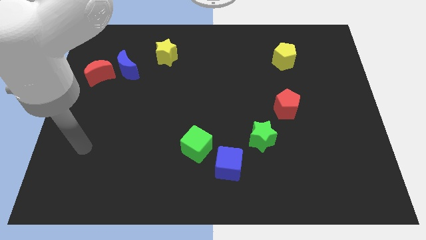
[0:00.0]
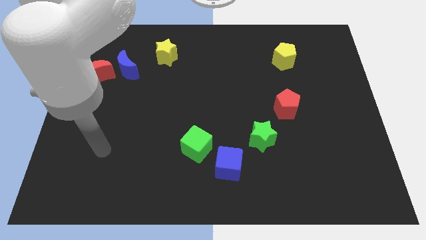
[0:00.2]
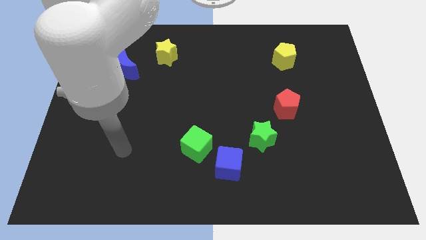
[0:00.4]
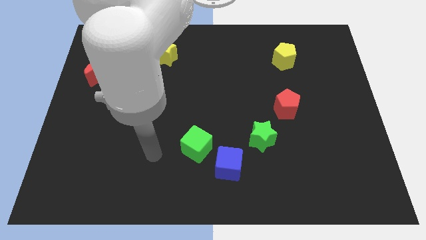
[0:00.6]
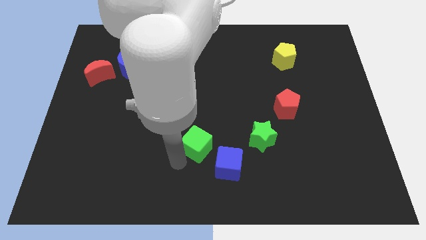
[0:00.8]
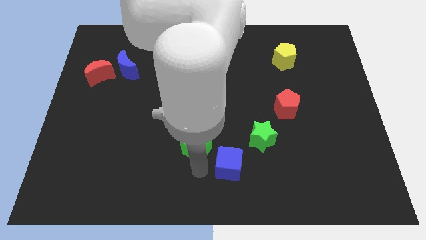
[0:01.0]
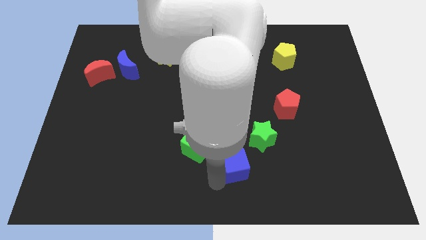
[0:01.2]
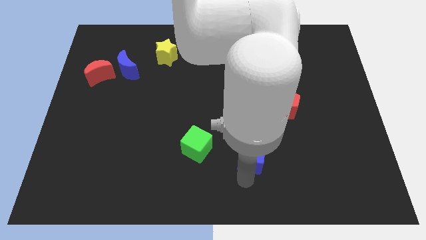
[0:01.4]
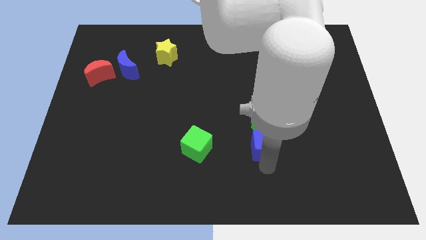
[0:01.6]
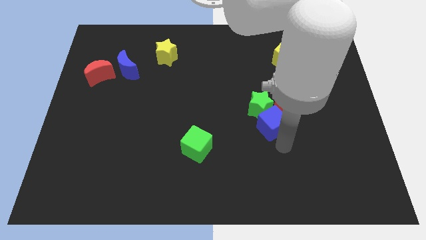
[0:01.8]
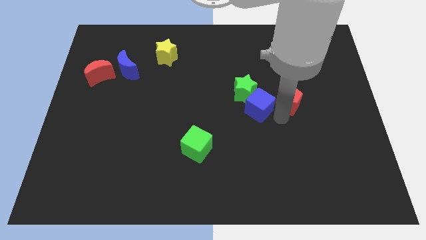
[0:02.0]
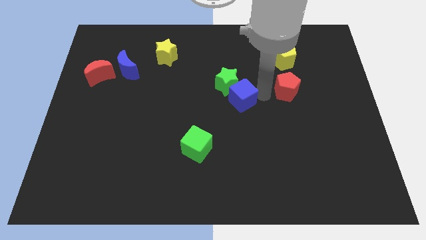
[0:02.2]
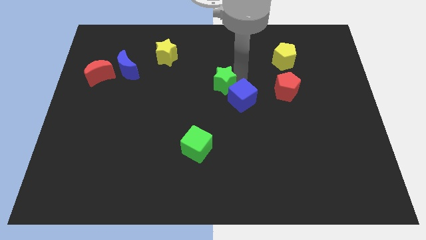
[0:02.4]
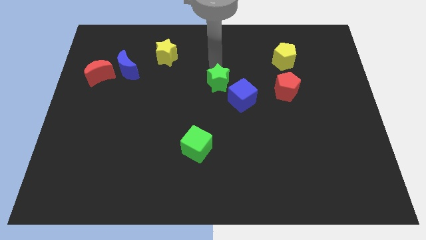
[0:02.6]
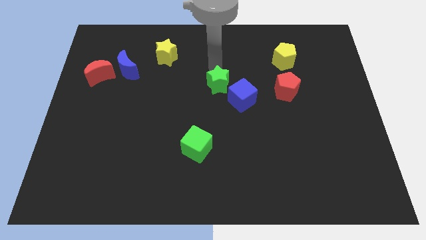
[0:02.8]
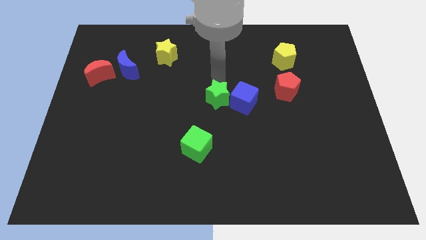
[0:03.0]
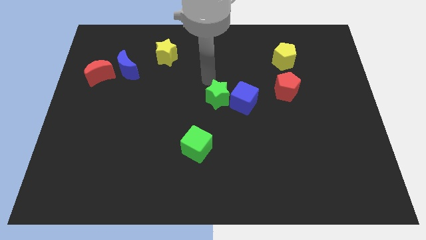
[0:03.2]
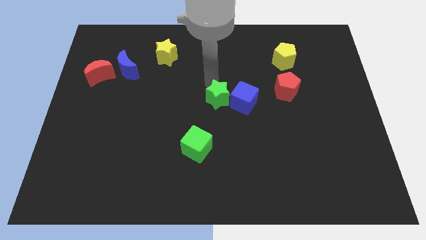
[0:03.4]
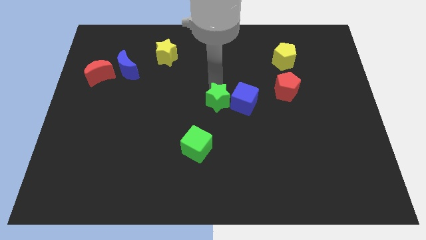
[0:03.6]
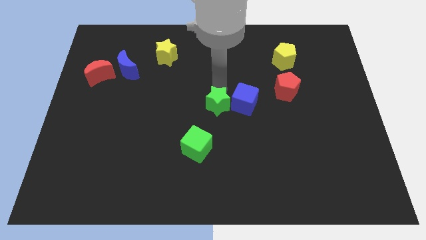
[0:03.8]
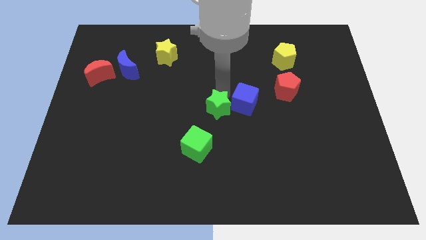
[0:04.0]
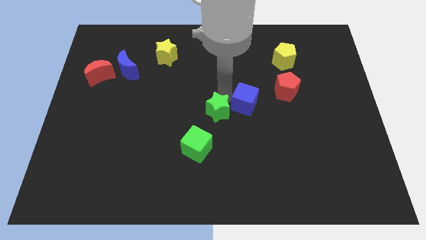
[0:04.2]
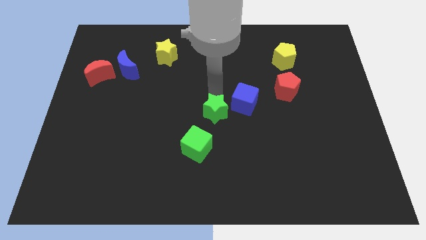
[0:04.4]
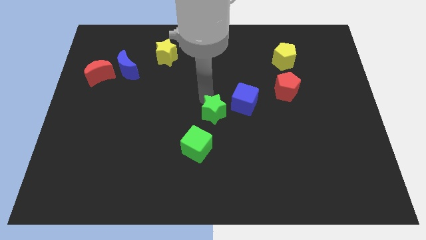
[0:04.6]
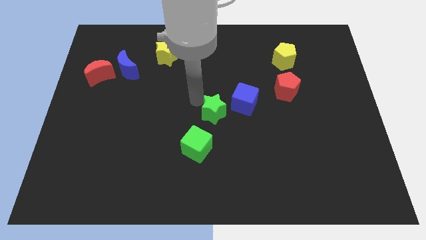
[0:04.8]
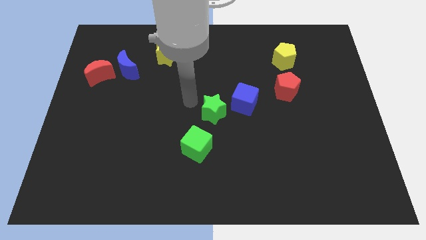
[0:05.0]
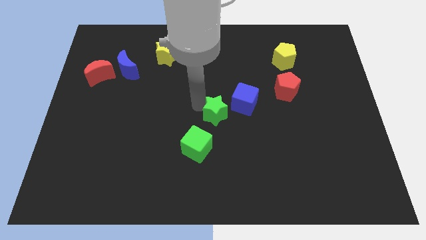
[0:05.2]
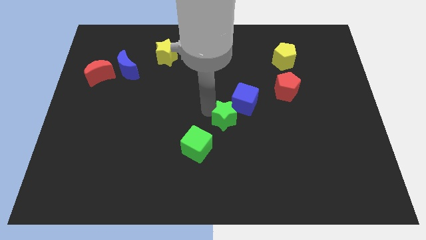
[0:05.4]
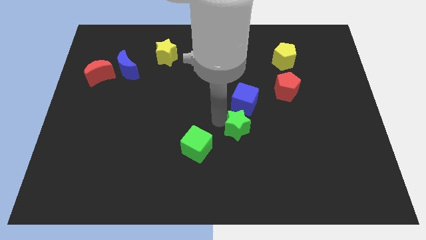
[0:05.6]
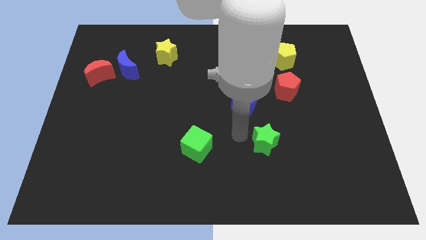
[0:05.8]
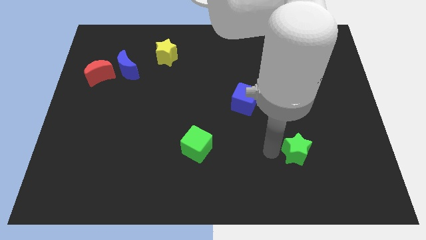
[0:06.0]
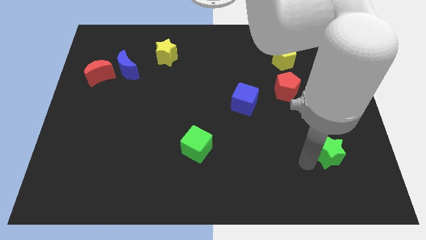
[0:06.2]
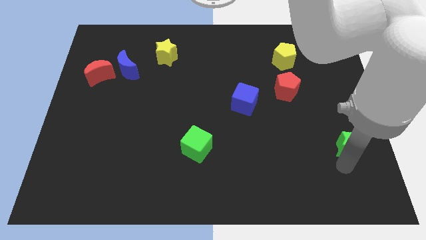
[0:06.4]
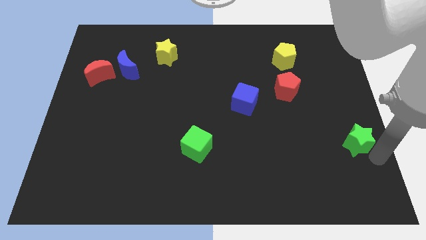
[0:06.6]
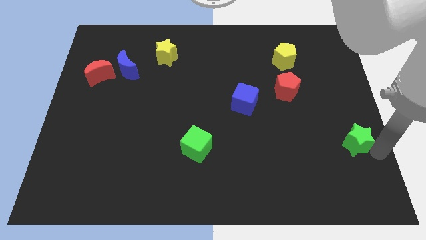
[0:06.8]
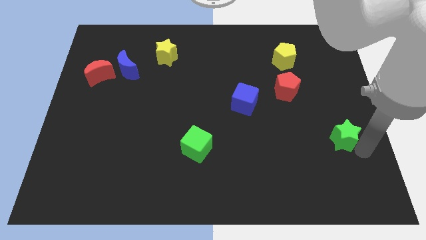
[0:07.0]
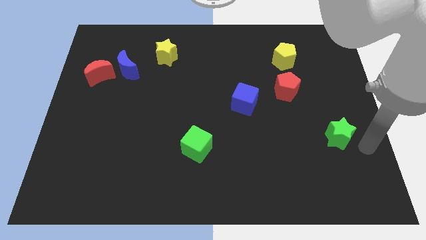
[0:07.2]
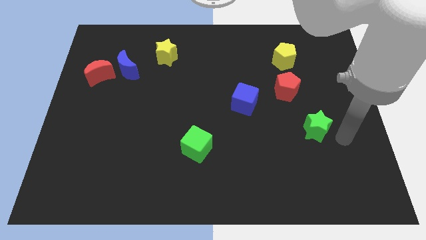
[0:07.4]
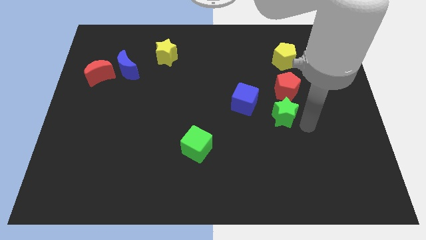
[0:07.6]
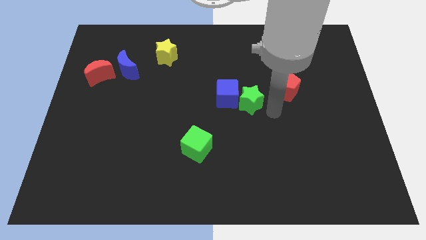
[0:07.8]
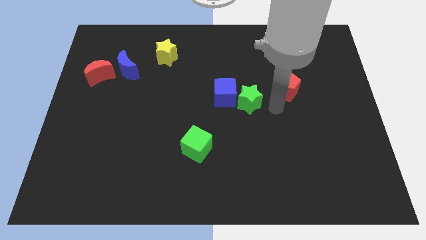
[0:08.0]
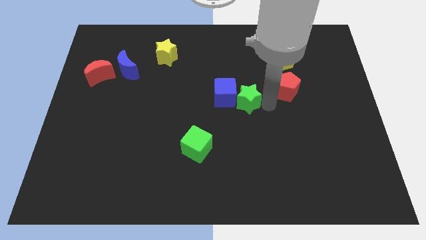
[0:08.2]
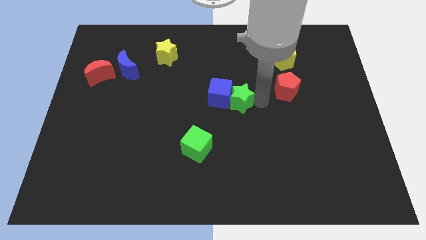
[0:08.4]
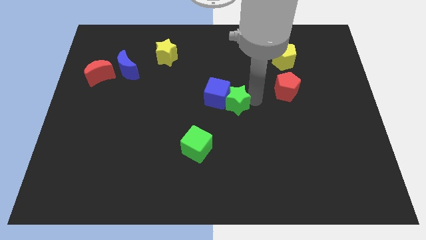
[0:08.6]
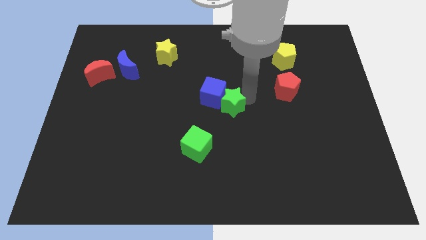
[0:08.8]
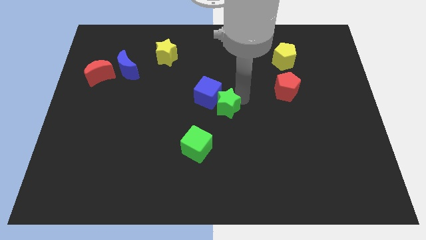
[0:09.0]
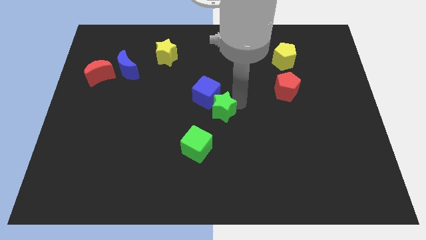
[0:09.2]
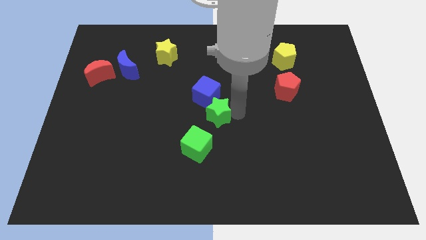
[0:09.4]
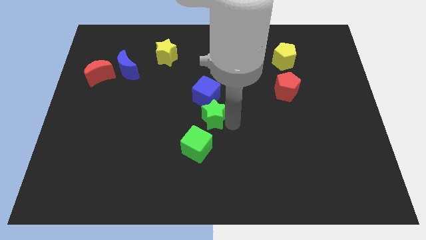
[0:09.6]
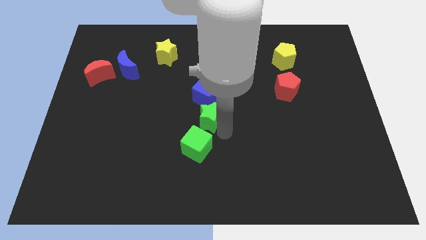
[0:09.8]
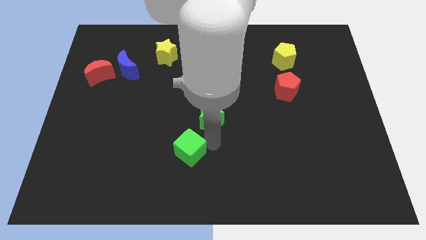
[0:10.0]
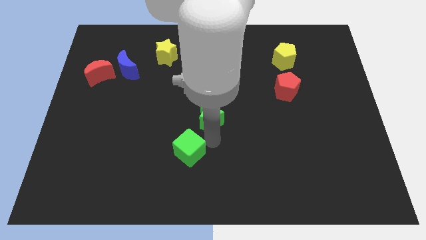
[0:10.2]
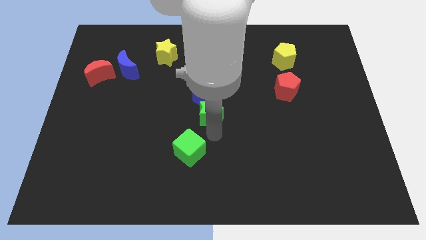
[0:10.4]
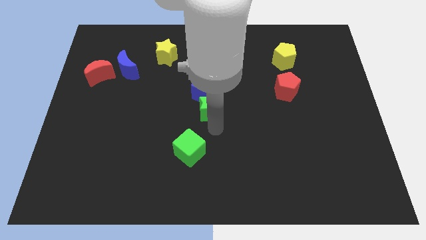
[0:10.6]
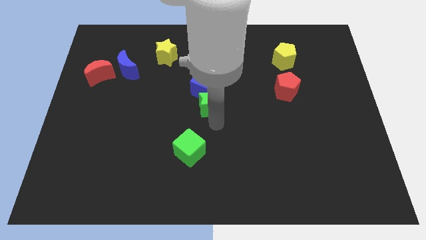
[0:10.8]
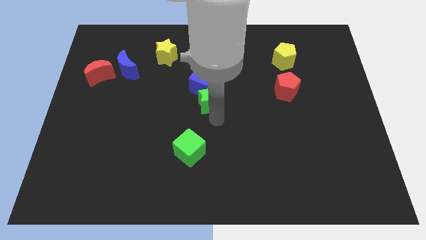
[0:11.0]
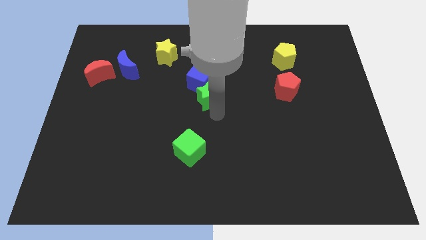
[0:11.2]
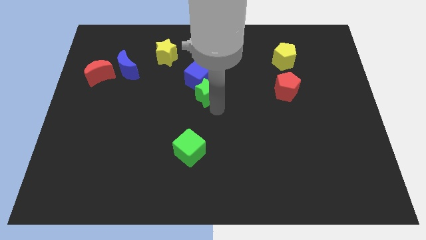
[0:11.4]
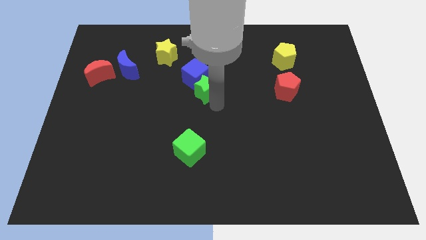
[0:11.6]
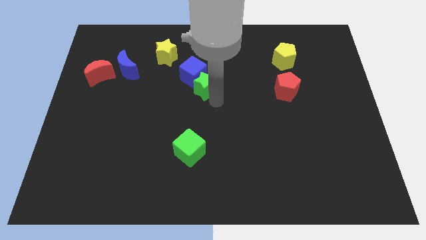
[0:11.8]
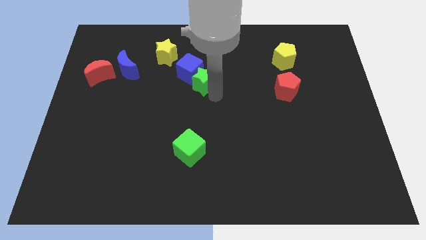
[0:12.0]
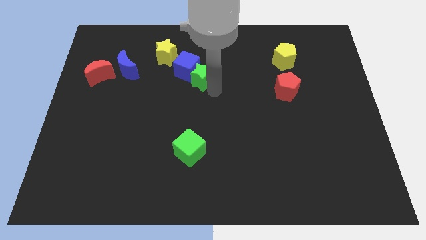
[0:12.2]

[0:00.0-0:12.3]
move the green star diagonally down and to the right of the yellow star
